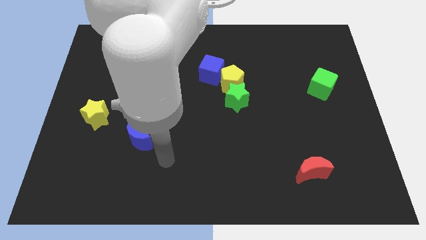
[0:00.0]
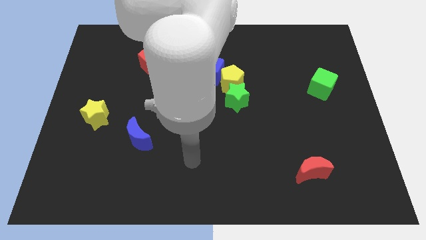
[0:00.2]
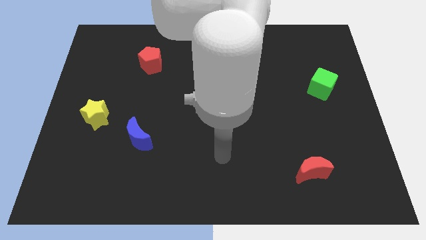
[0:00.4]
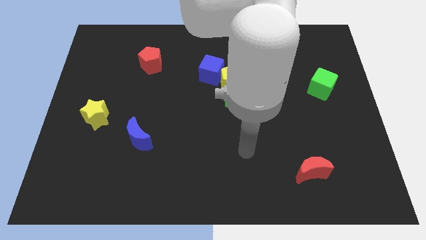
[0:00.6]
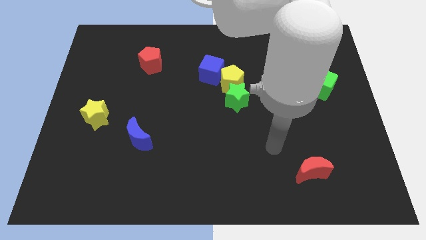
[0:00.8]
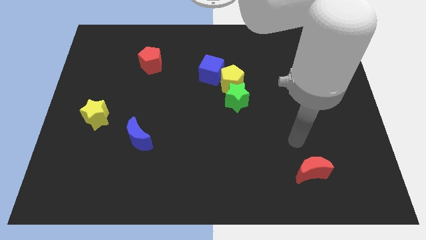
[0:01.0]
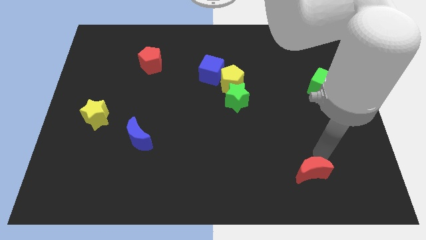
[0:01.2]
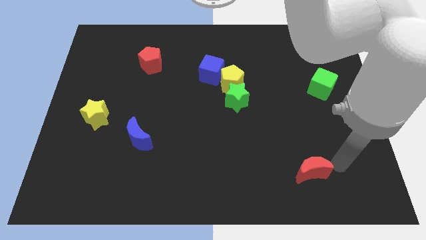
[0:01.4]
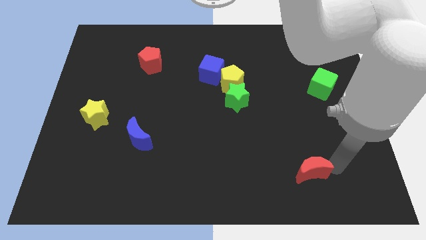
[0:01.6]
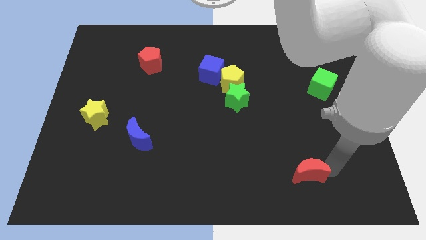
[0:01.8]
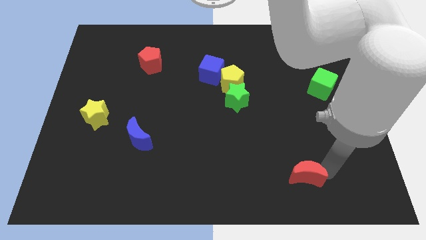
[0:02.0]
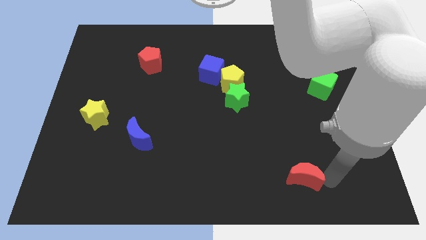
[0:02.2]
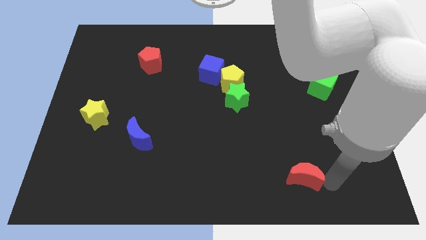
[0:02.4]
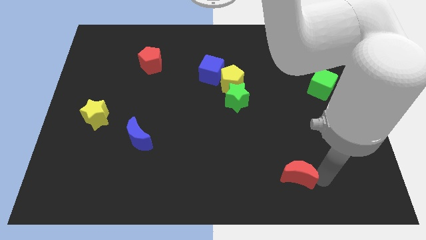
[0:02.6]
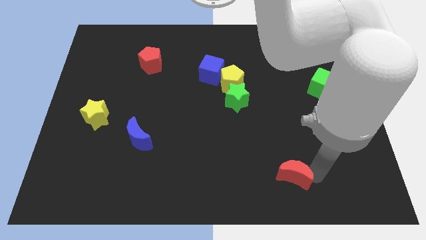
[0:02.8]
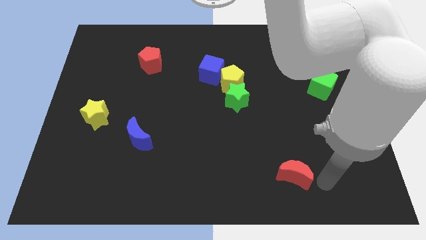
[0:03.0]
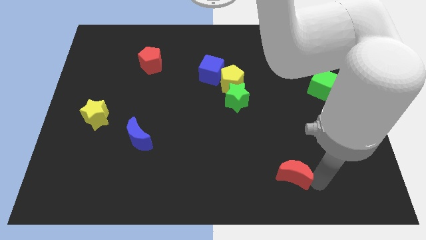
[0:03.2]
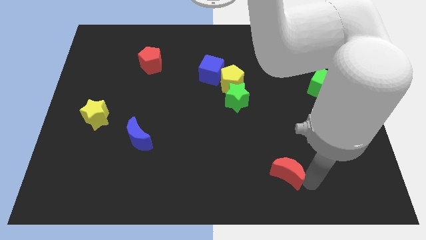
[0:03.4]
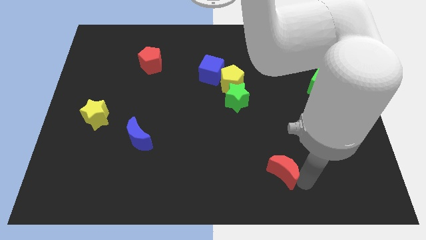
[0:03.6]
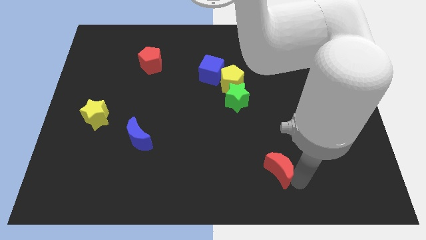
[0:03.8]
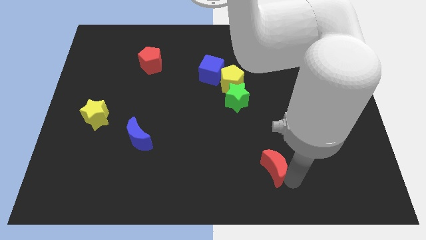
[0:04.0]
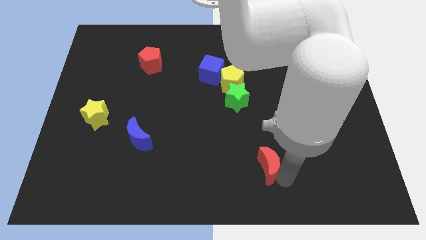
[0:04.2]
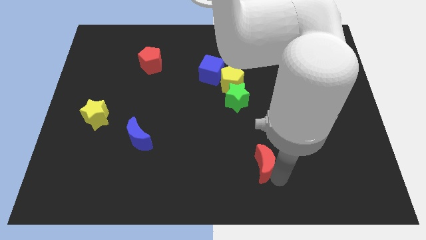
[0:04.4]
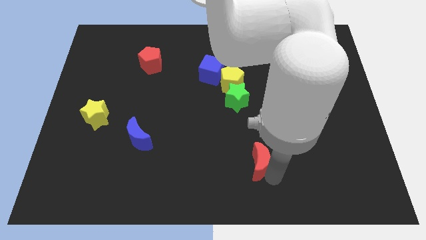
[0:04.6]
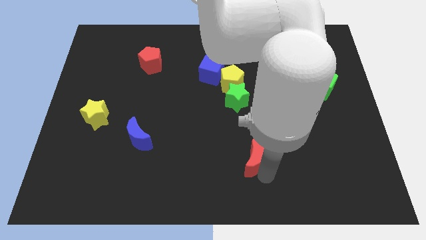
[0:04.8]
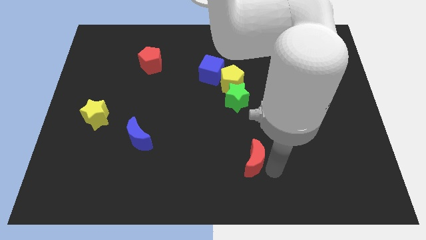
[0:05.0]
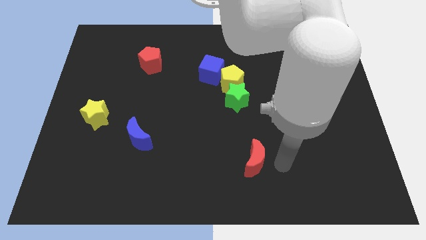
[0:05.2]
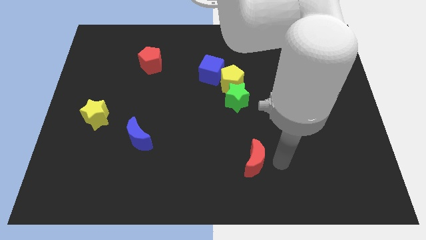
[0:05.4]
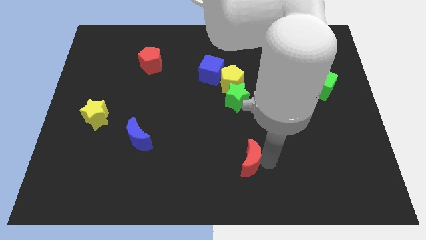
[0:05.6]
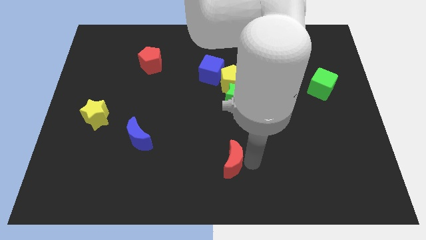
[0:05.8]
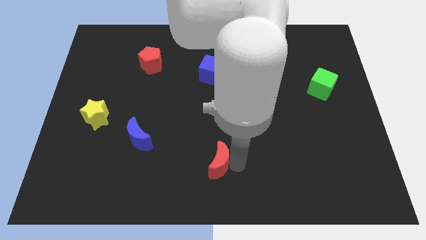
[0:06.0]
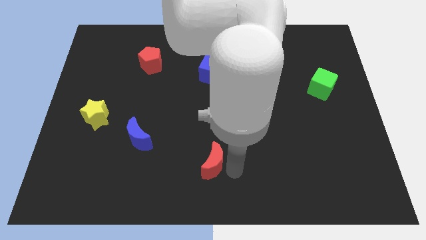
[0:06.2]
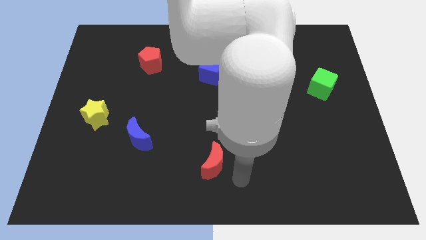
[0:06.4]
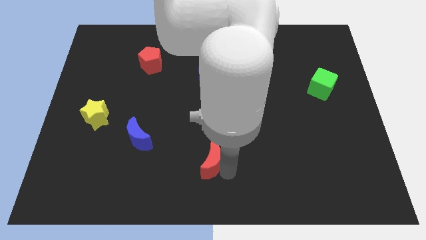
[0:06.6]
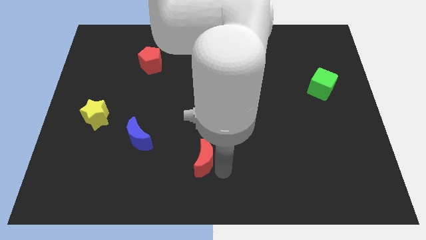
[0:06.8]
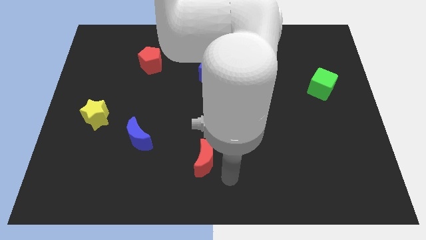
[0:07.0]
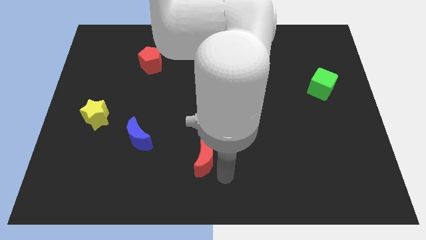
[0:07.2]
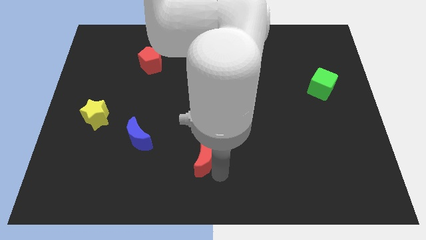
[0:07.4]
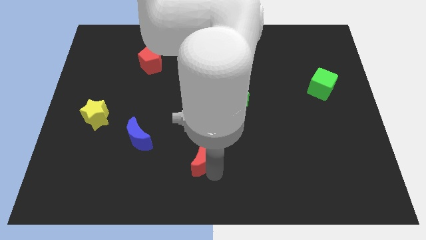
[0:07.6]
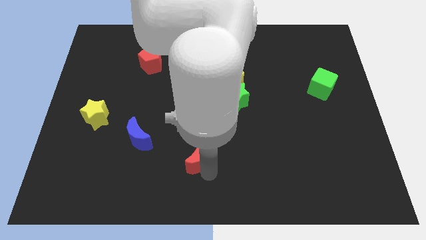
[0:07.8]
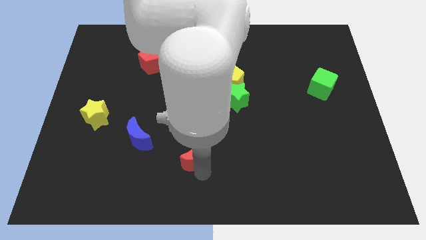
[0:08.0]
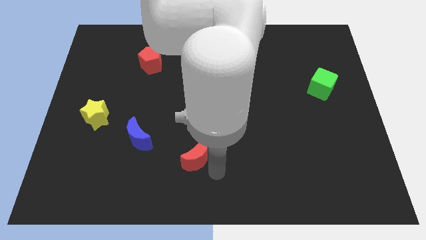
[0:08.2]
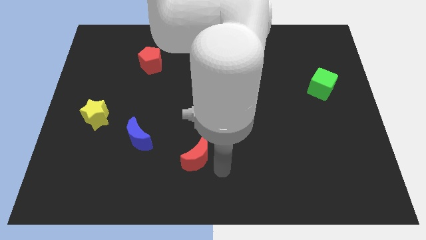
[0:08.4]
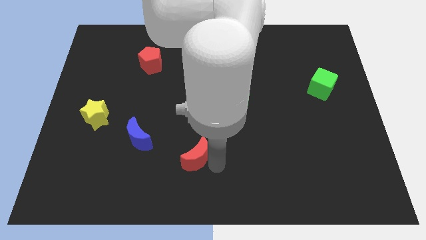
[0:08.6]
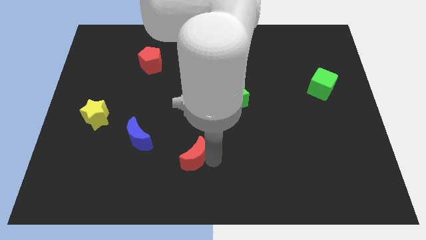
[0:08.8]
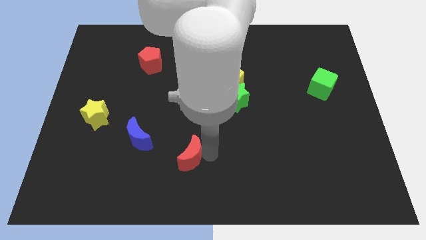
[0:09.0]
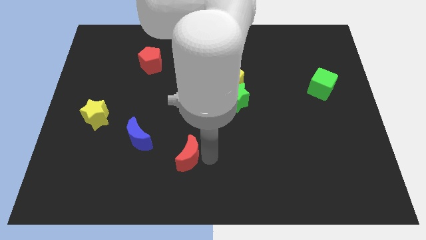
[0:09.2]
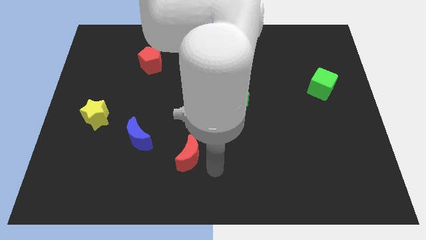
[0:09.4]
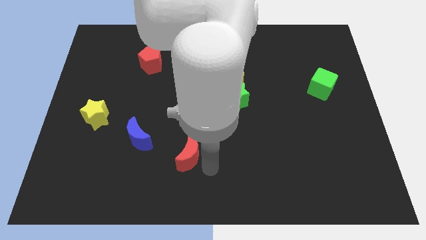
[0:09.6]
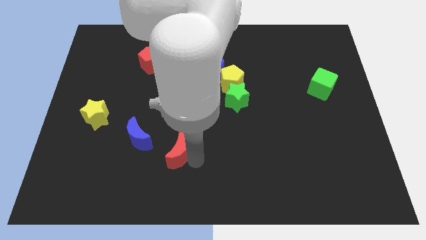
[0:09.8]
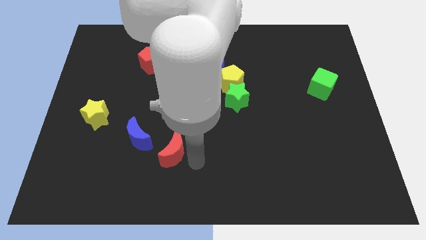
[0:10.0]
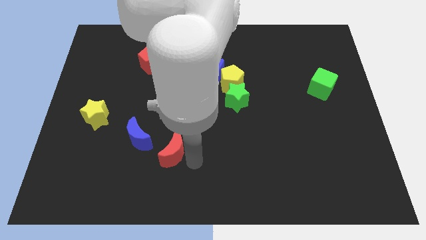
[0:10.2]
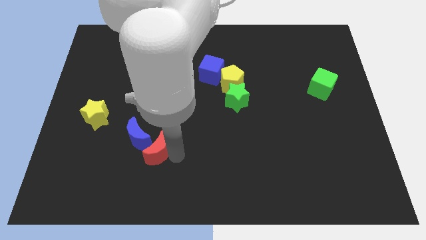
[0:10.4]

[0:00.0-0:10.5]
slide the red moon next to the blue moon

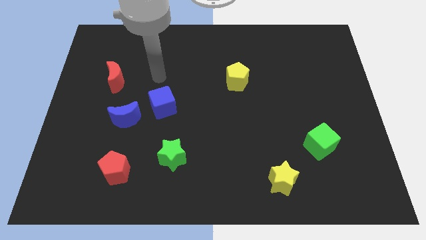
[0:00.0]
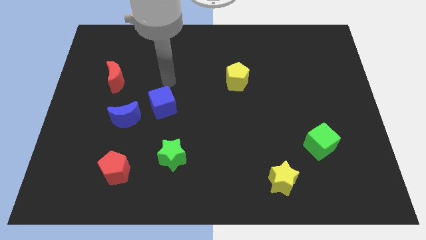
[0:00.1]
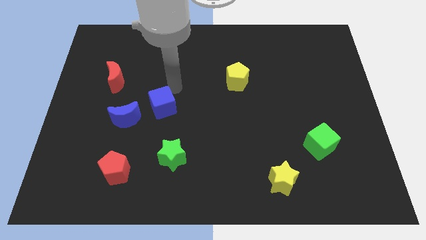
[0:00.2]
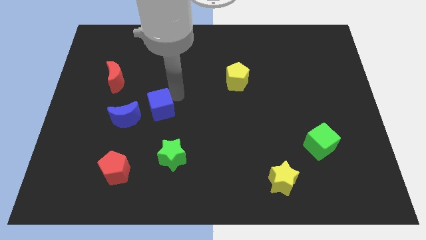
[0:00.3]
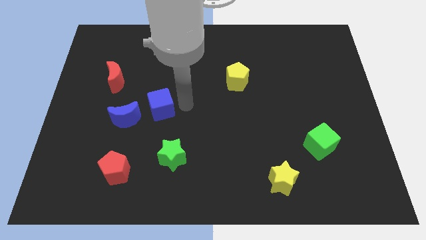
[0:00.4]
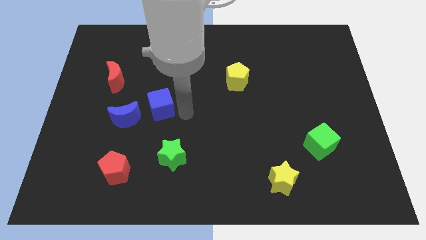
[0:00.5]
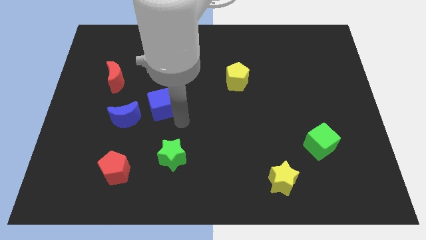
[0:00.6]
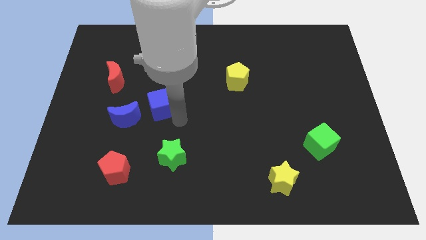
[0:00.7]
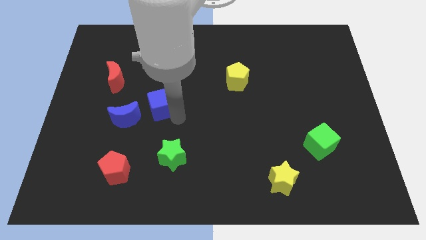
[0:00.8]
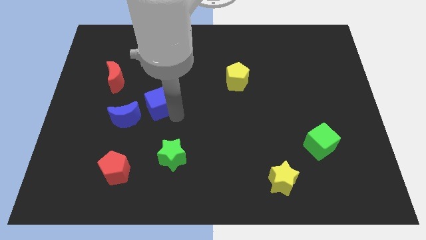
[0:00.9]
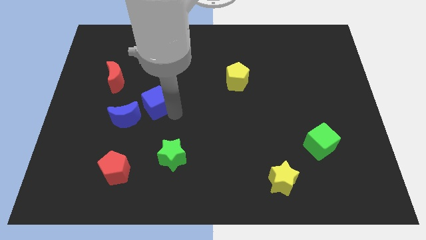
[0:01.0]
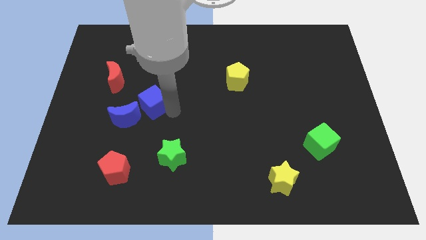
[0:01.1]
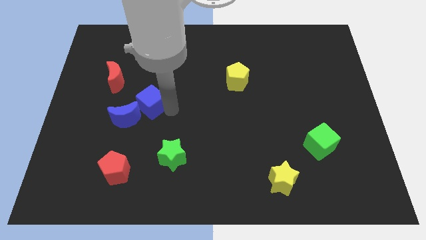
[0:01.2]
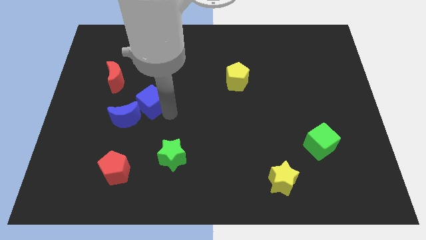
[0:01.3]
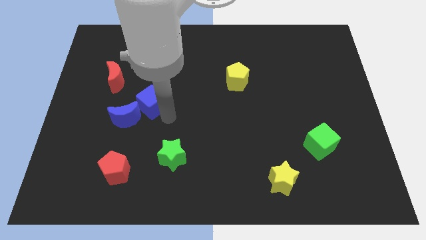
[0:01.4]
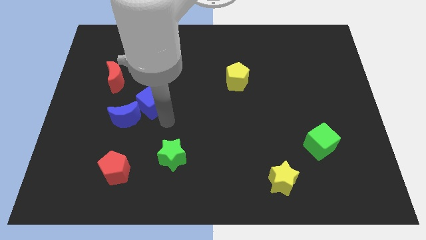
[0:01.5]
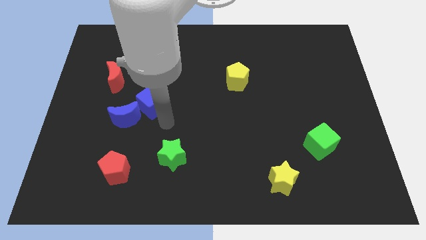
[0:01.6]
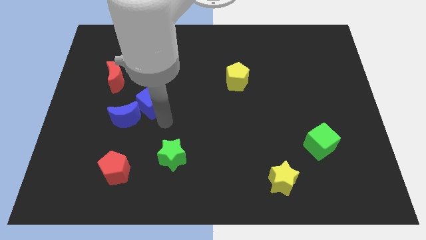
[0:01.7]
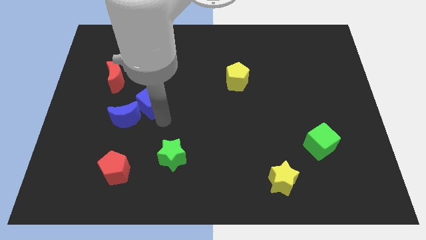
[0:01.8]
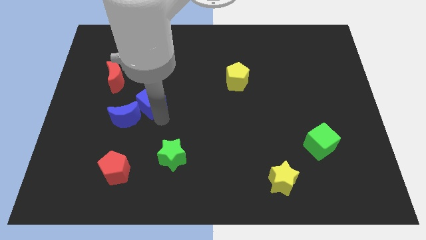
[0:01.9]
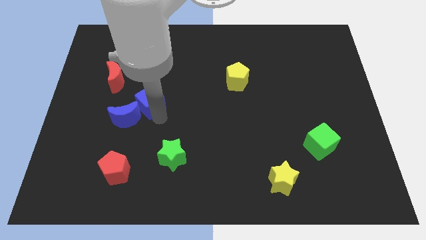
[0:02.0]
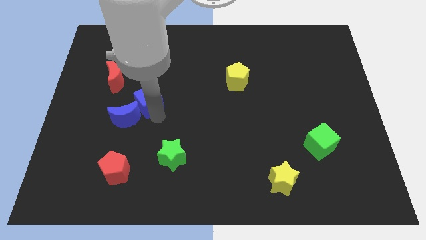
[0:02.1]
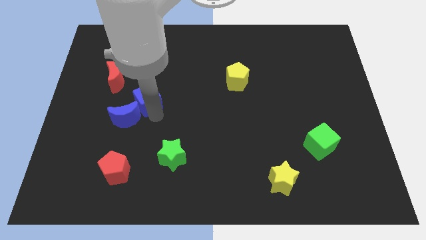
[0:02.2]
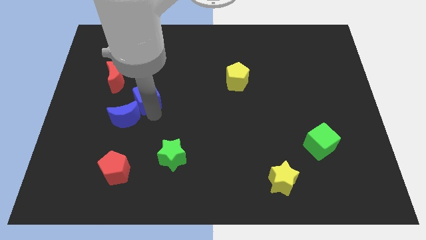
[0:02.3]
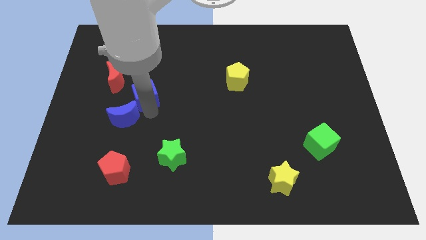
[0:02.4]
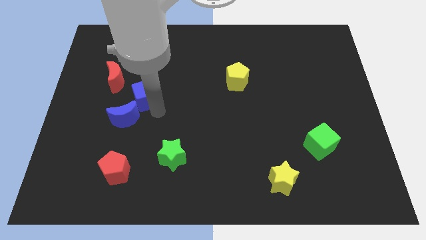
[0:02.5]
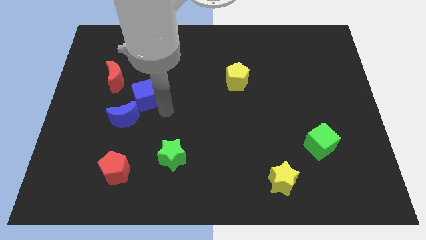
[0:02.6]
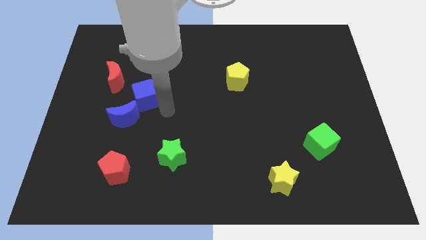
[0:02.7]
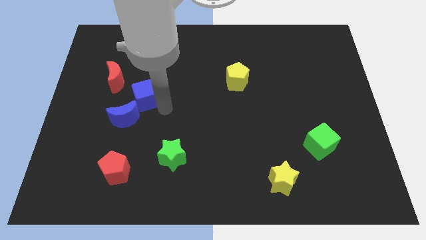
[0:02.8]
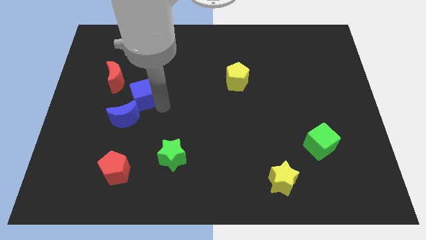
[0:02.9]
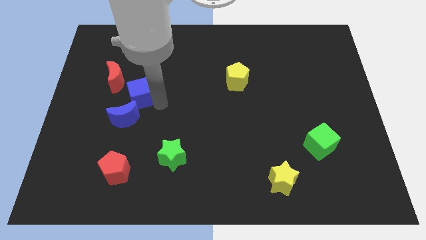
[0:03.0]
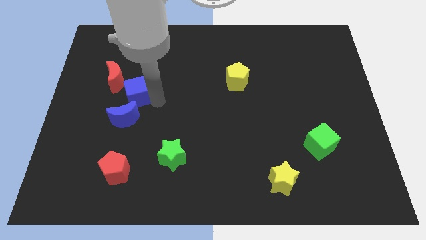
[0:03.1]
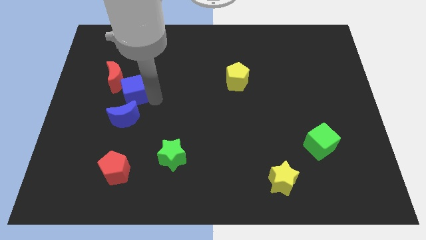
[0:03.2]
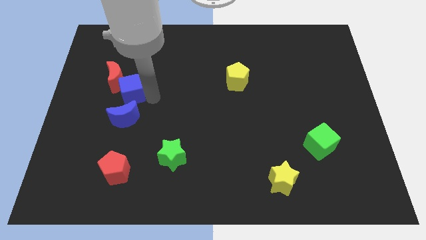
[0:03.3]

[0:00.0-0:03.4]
put the blue cube towards the red moon
